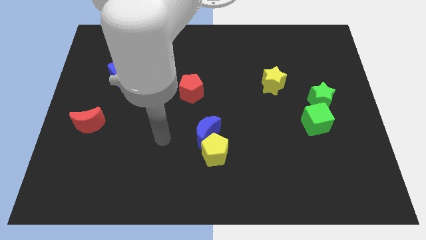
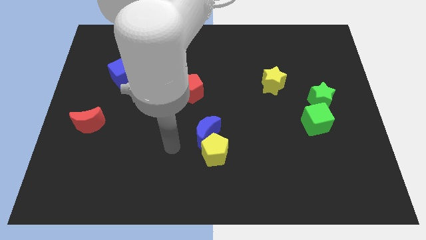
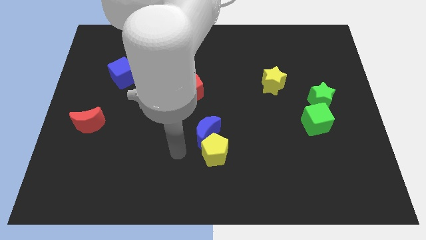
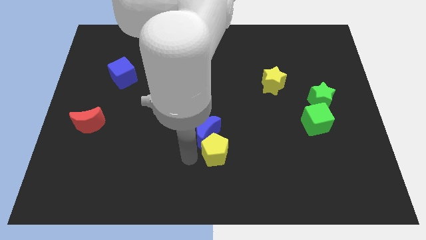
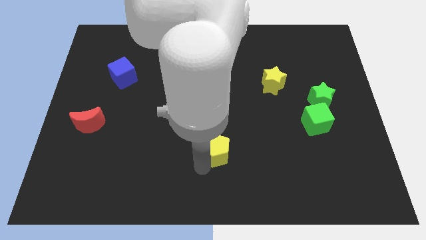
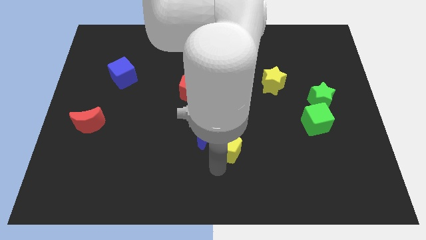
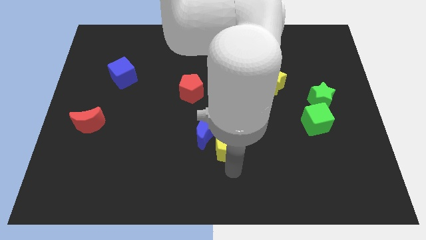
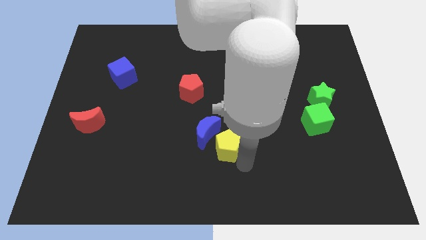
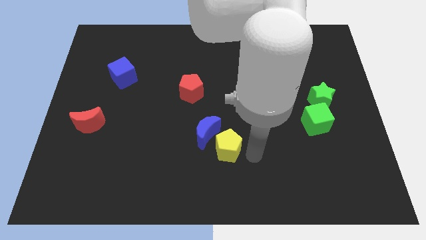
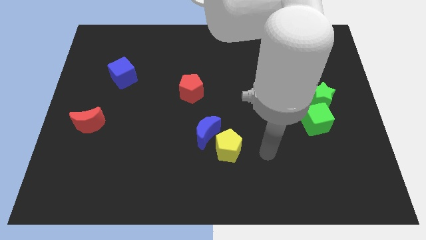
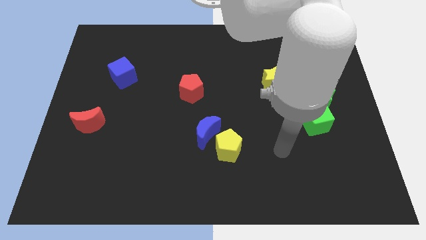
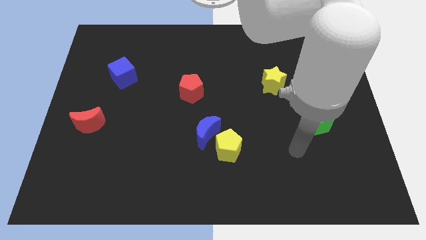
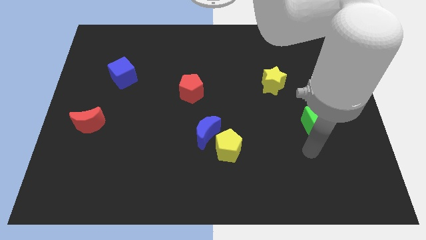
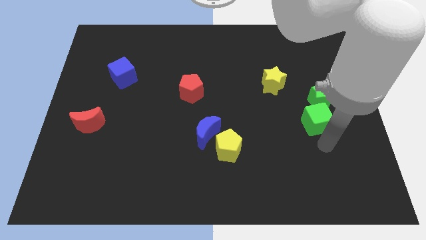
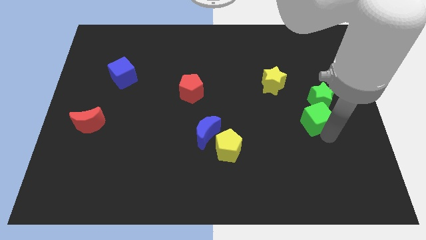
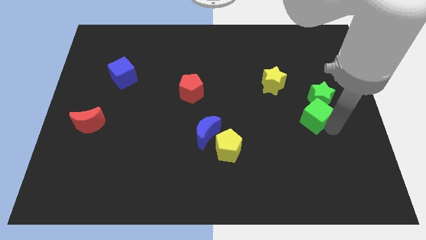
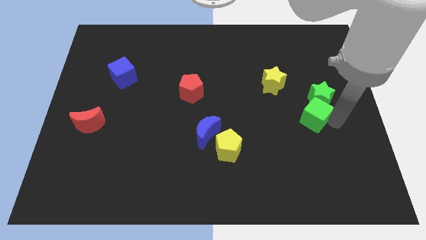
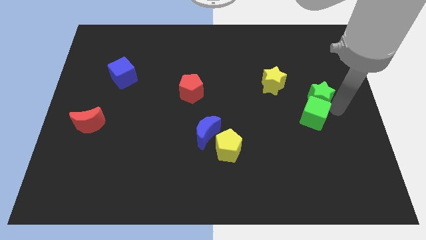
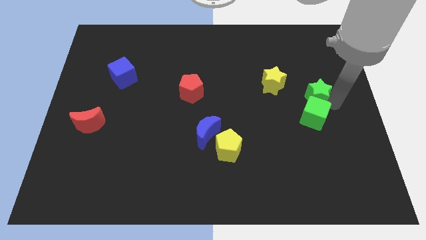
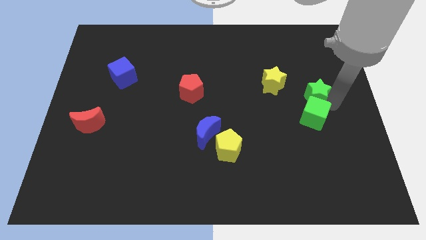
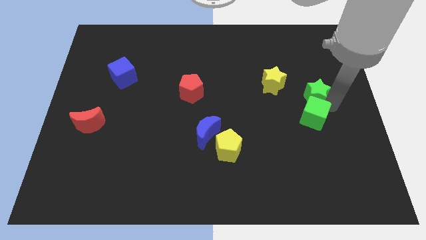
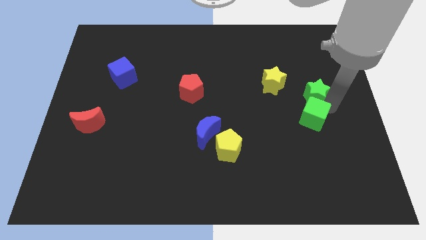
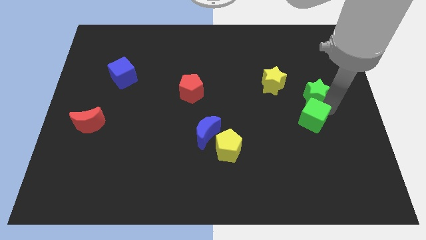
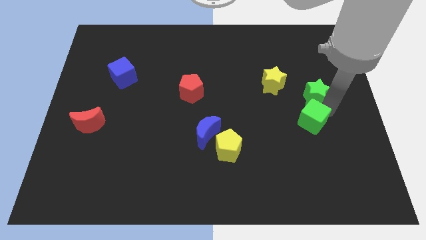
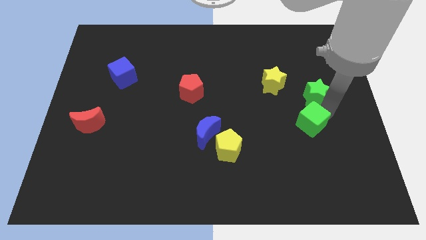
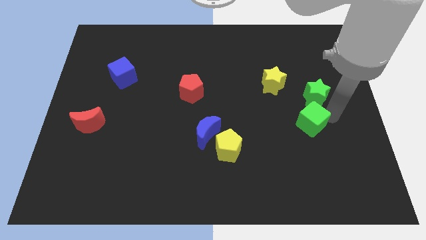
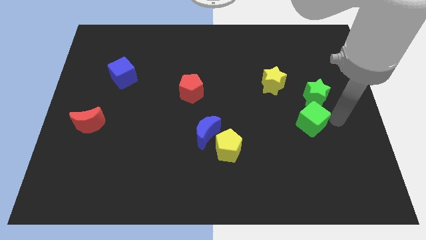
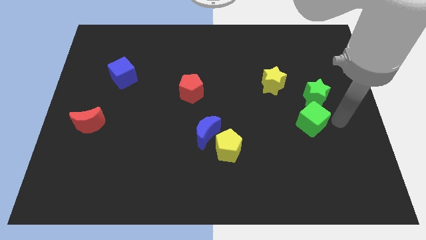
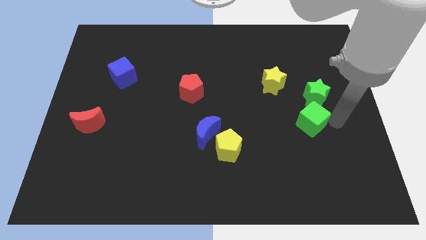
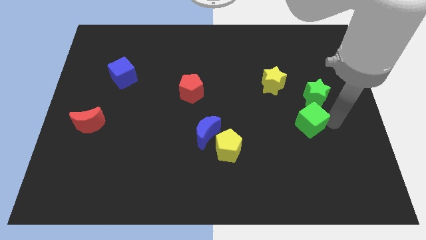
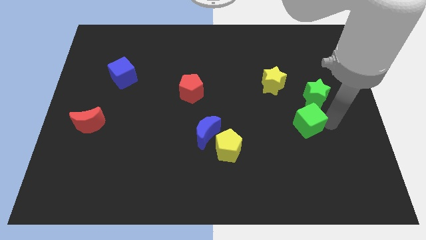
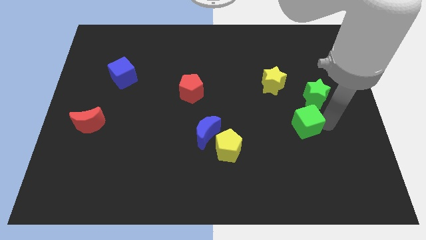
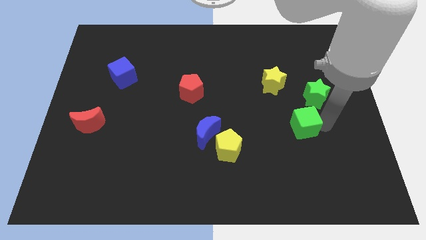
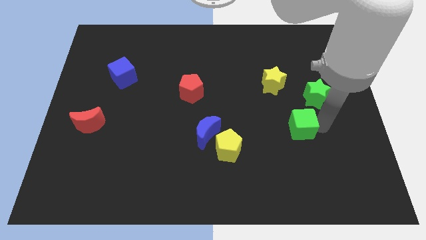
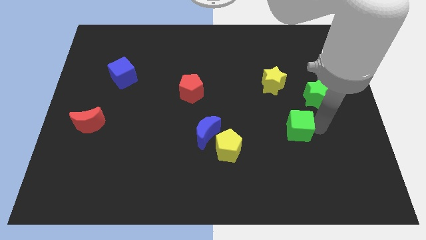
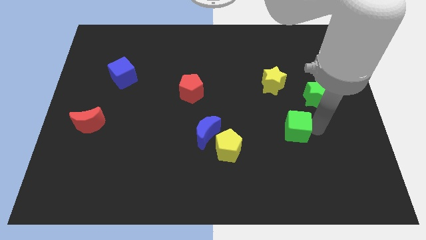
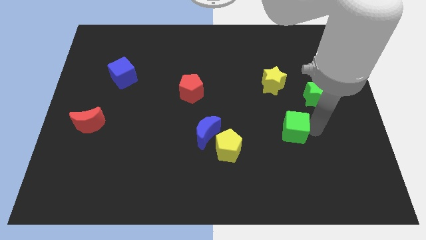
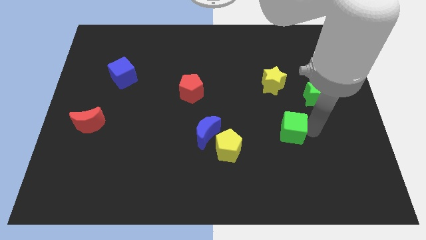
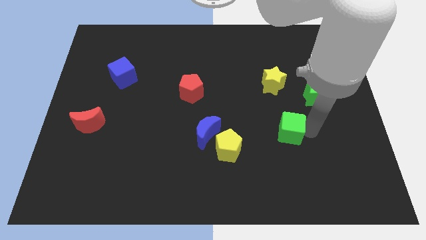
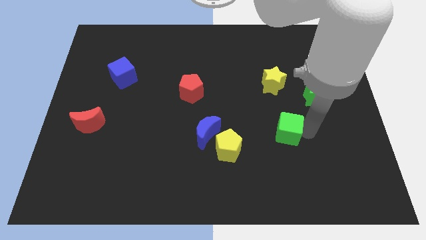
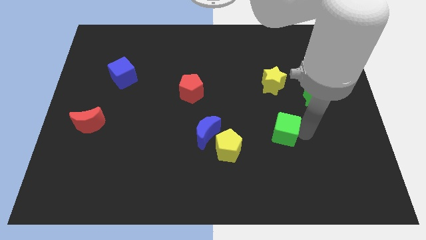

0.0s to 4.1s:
push the green cube to the left a little

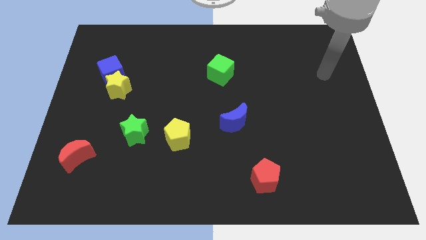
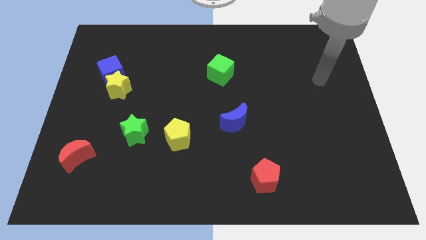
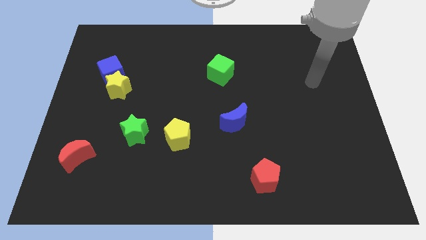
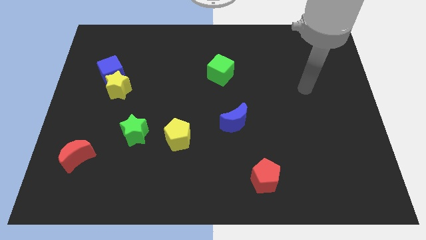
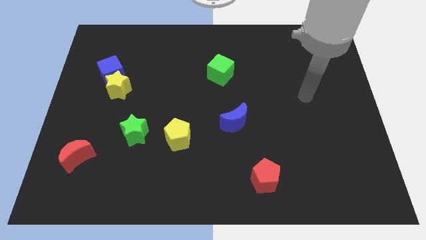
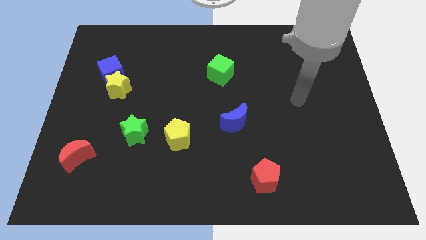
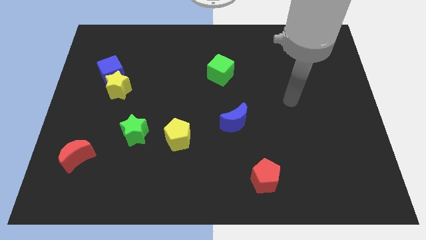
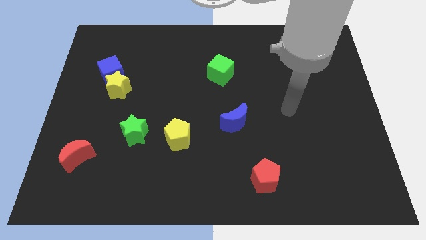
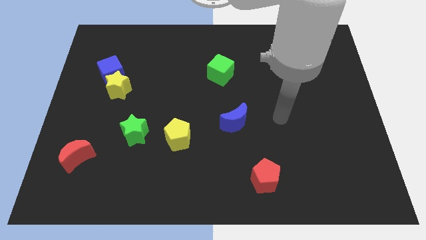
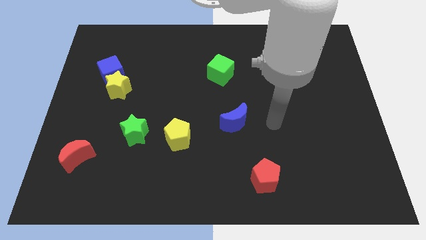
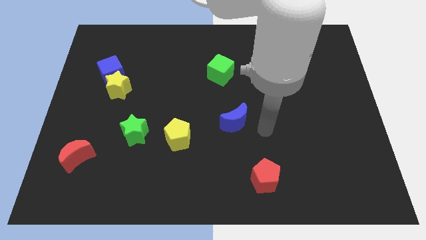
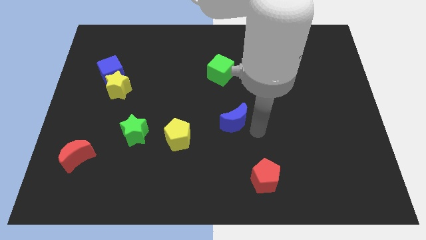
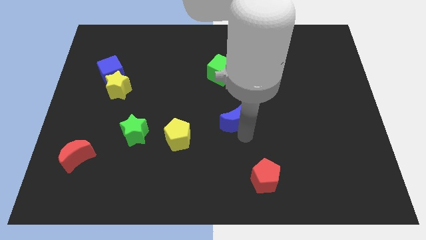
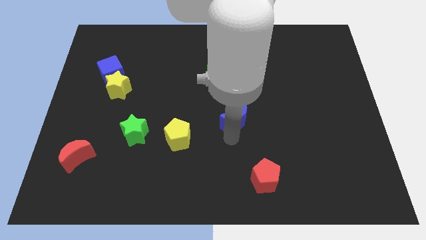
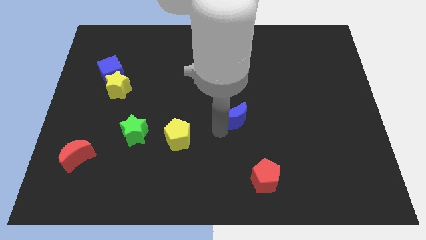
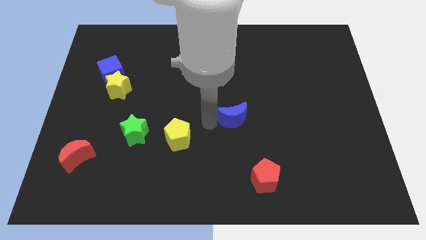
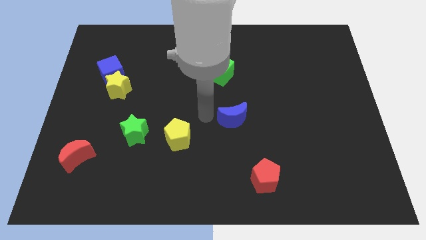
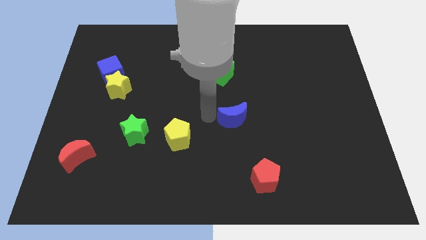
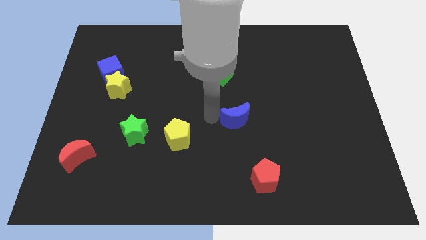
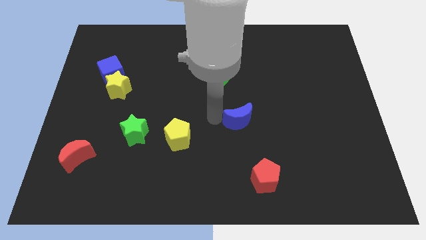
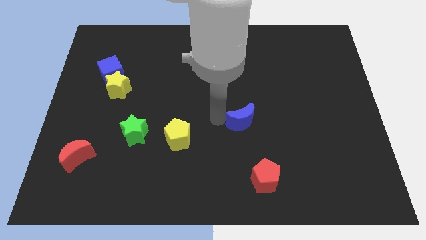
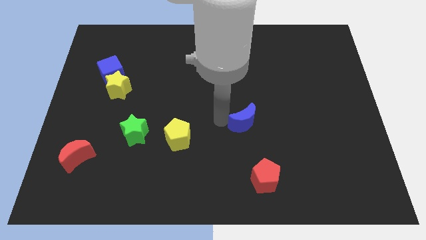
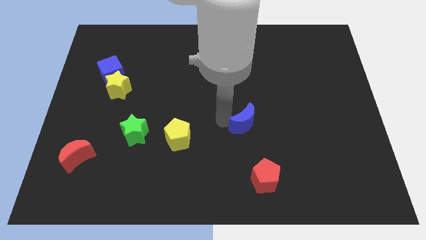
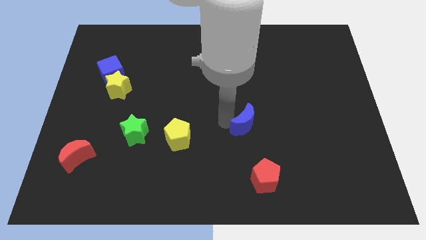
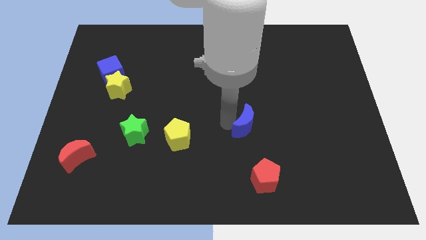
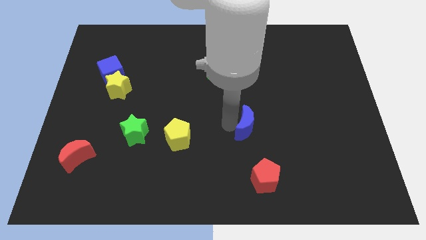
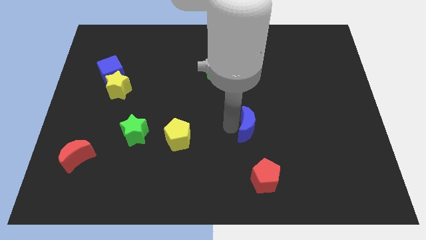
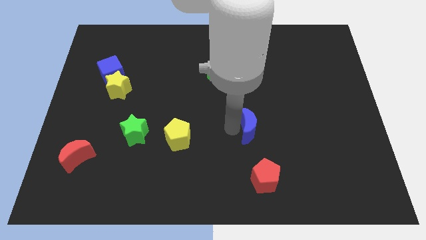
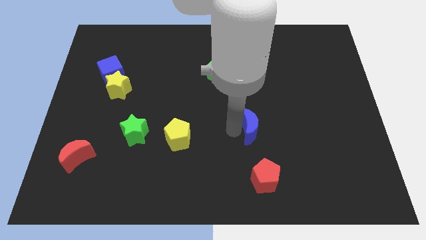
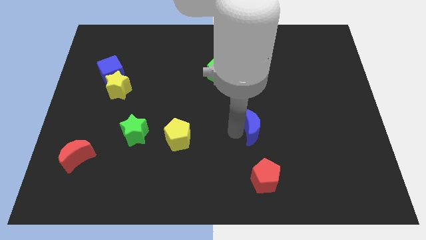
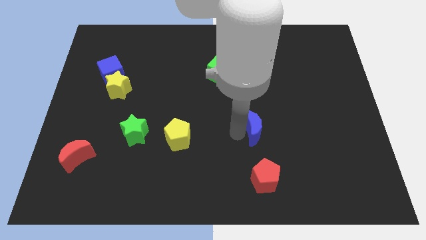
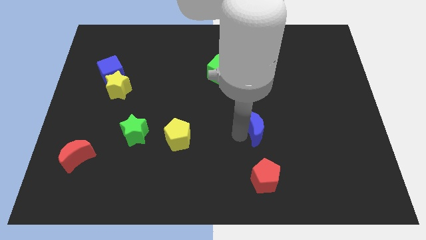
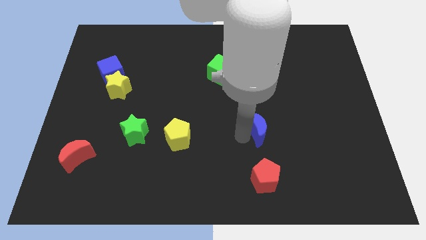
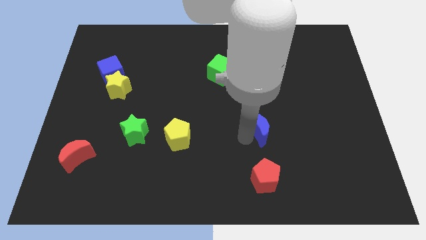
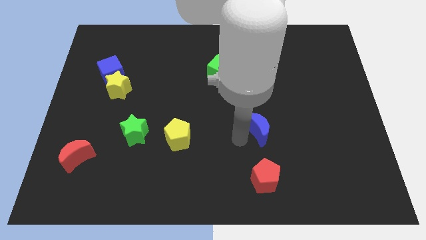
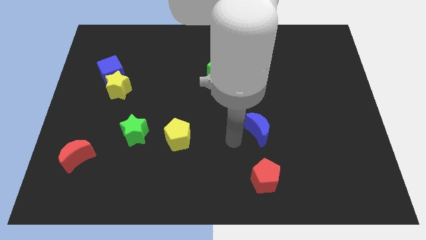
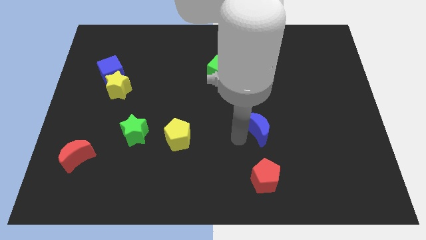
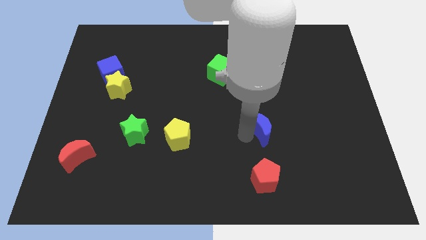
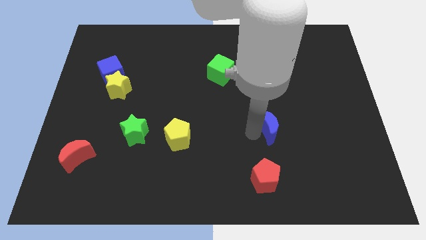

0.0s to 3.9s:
push the blue moon to the right slightly
